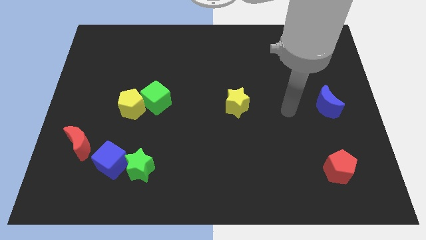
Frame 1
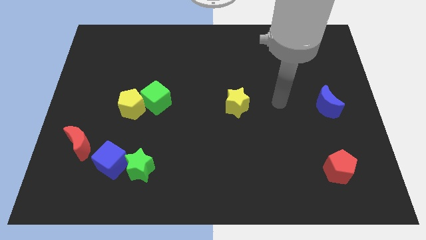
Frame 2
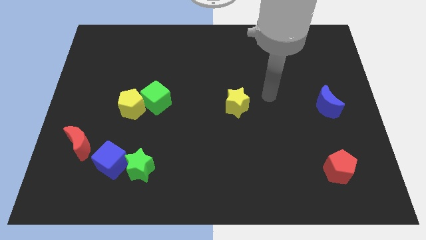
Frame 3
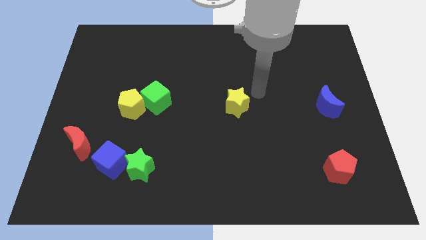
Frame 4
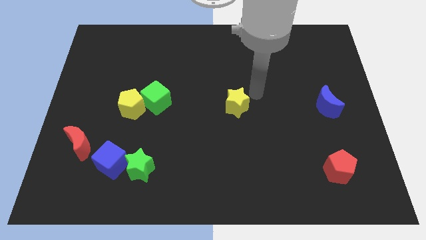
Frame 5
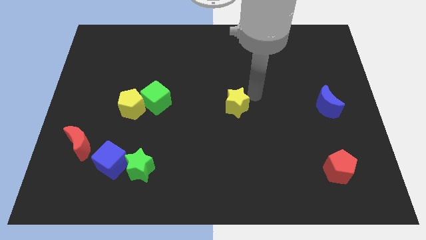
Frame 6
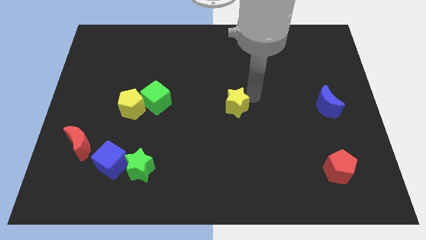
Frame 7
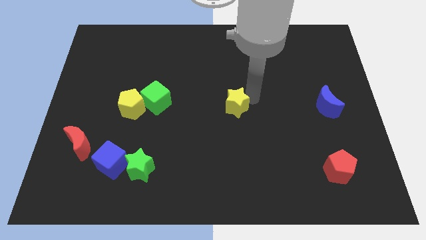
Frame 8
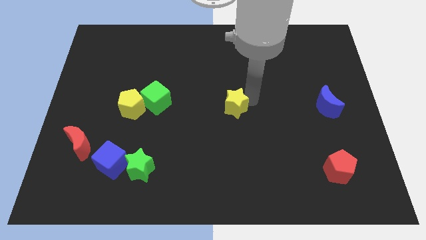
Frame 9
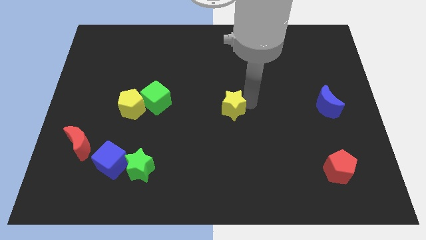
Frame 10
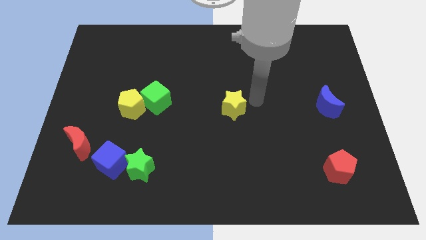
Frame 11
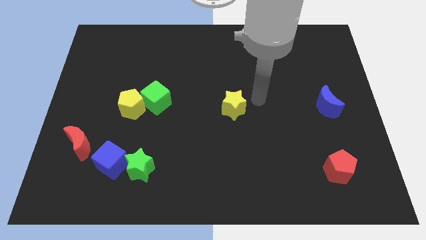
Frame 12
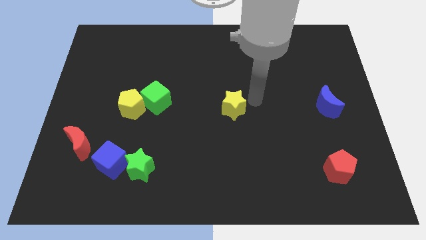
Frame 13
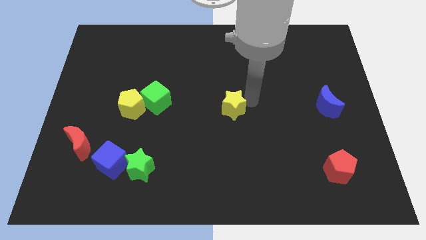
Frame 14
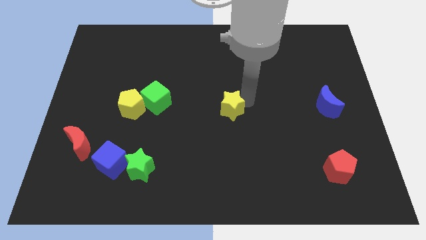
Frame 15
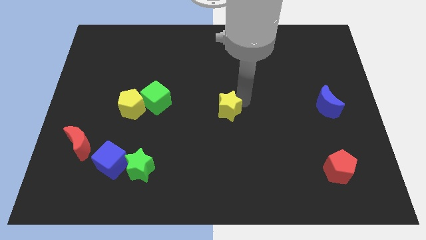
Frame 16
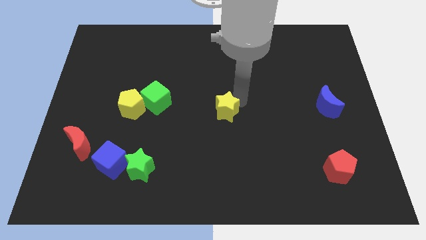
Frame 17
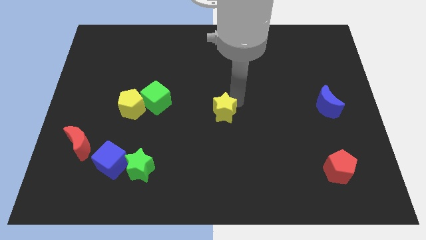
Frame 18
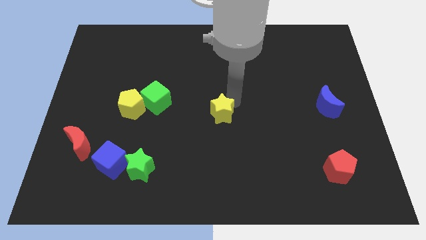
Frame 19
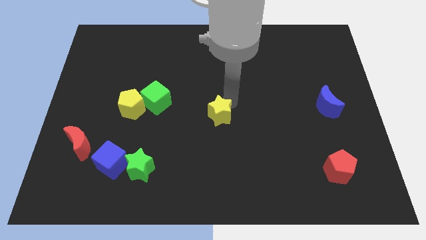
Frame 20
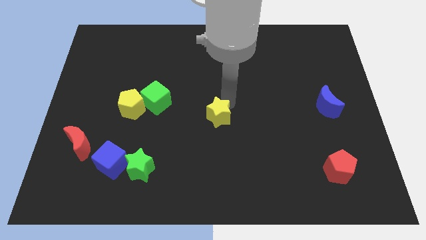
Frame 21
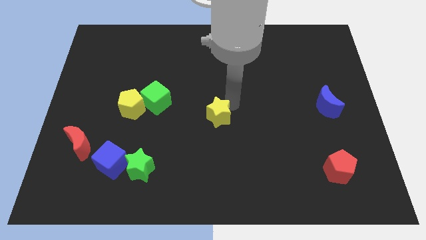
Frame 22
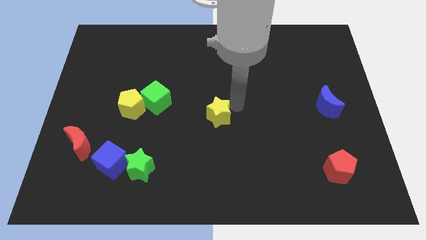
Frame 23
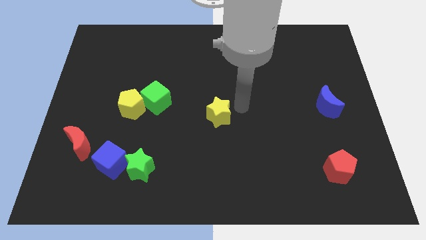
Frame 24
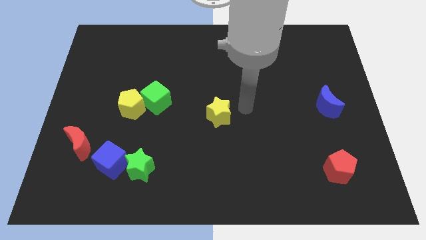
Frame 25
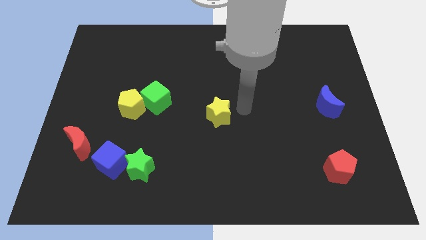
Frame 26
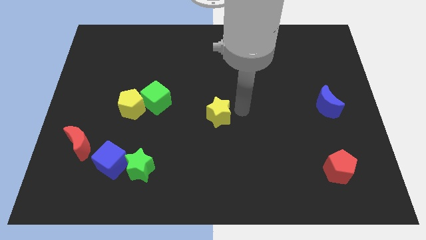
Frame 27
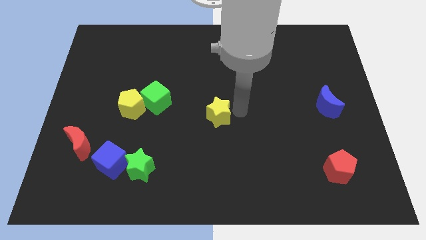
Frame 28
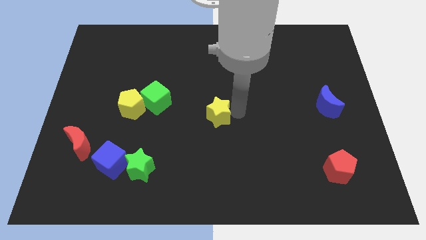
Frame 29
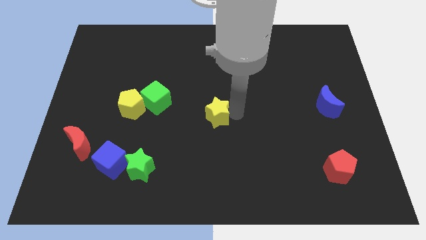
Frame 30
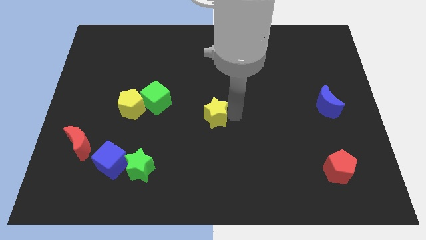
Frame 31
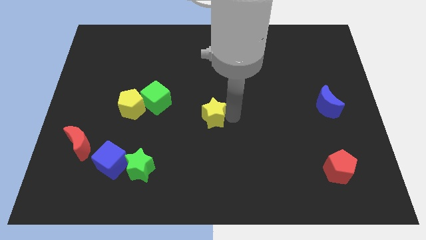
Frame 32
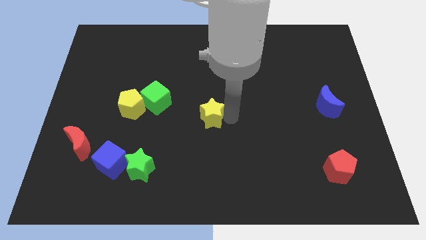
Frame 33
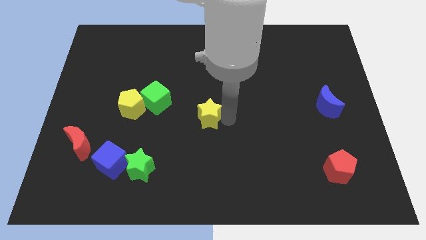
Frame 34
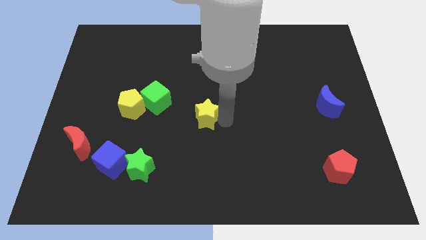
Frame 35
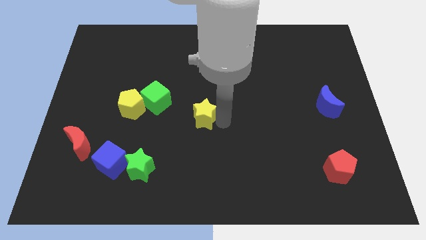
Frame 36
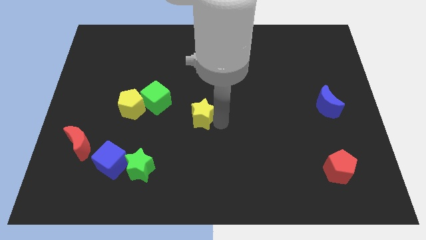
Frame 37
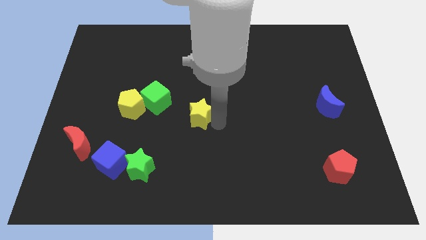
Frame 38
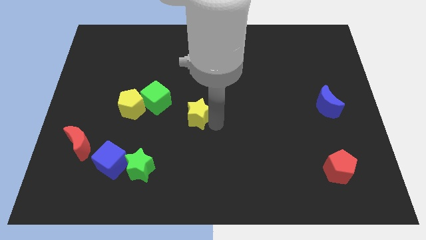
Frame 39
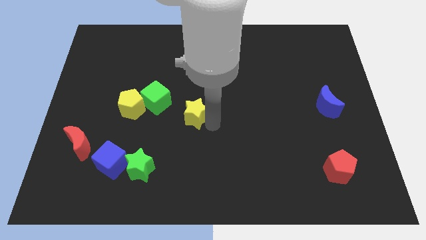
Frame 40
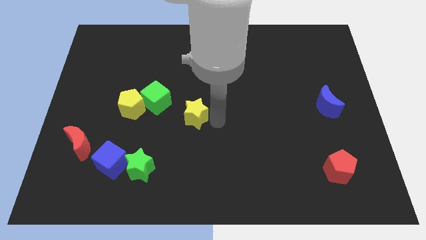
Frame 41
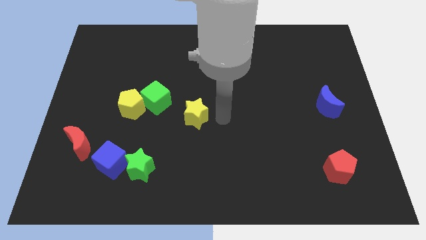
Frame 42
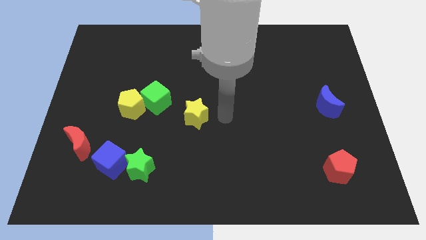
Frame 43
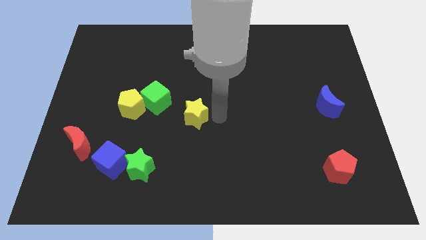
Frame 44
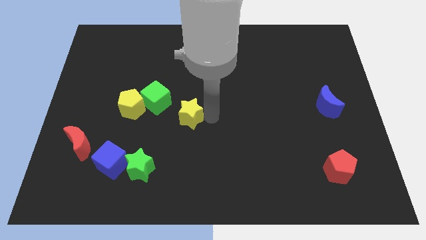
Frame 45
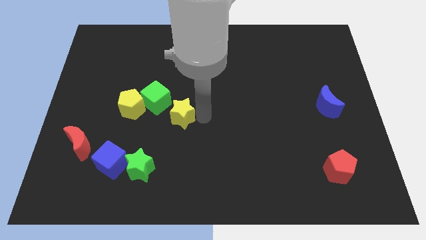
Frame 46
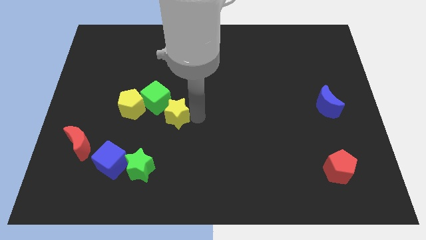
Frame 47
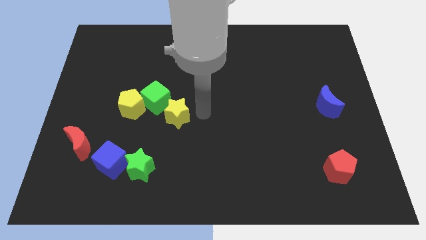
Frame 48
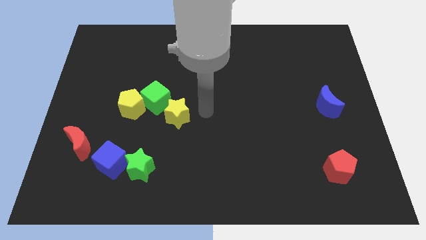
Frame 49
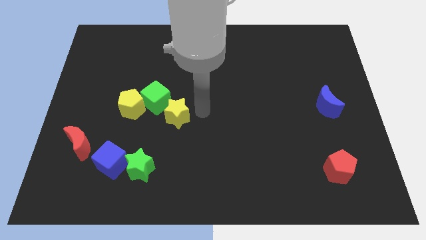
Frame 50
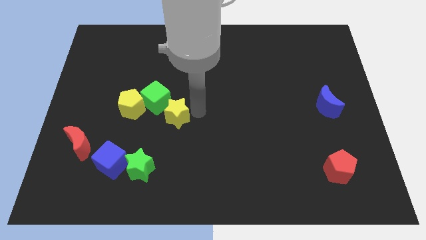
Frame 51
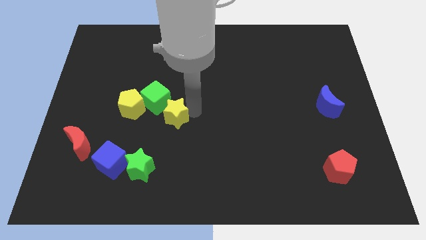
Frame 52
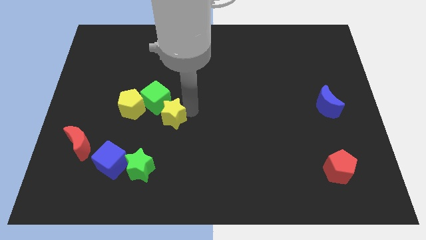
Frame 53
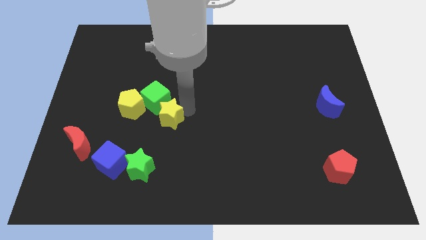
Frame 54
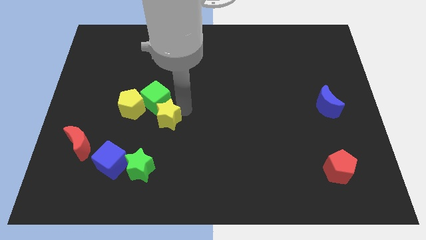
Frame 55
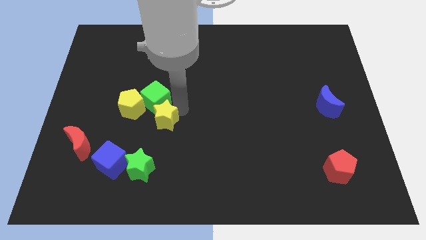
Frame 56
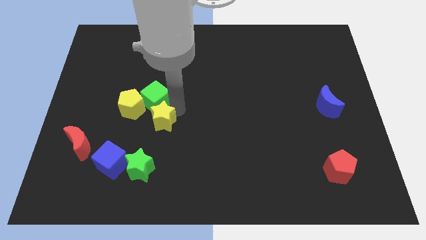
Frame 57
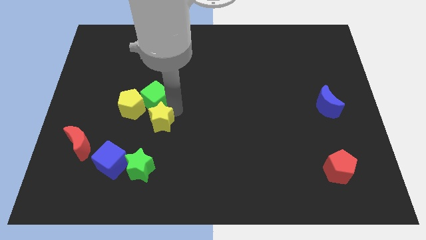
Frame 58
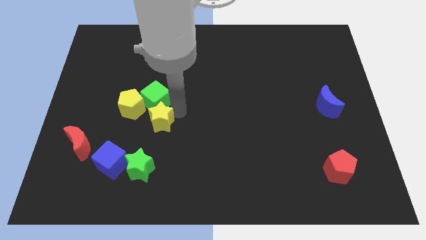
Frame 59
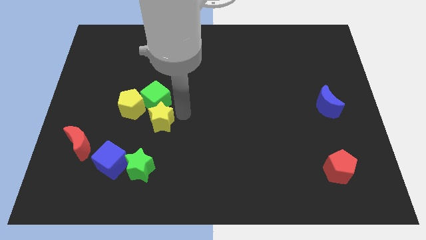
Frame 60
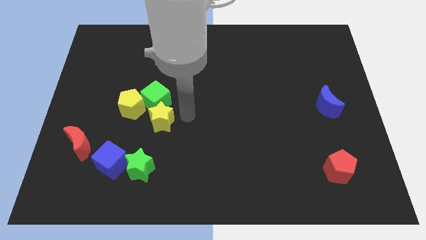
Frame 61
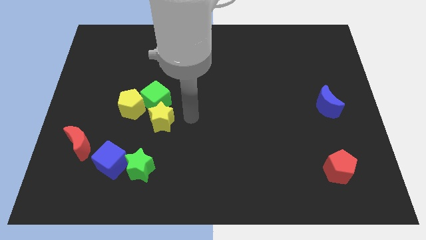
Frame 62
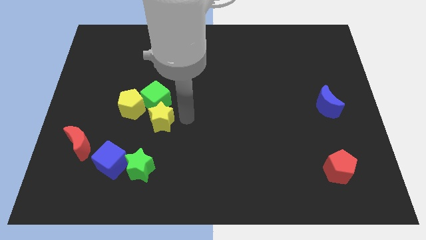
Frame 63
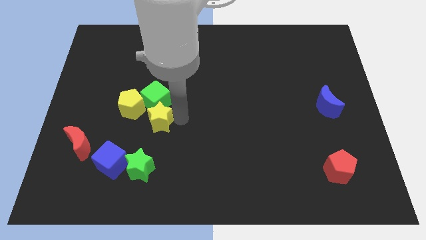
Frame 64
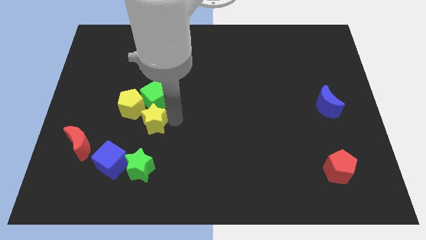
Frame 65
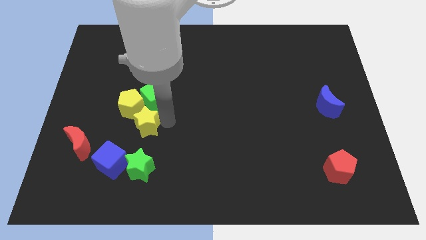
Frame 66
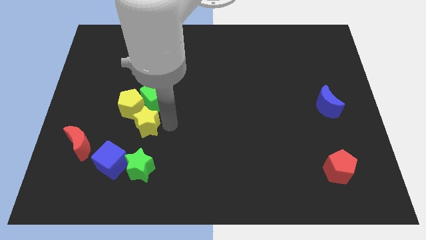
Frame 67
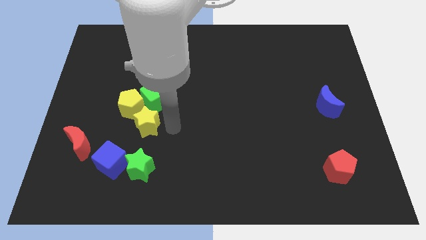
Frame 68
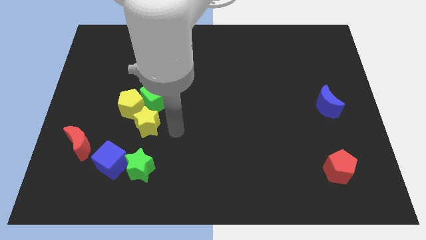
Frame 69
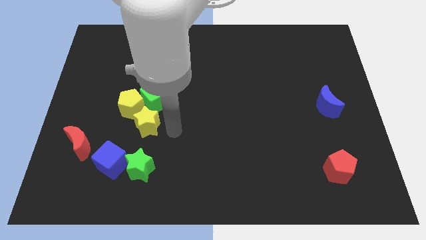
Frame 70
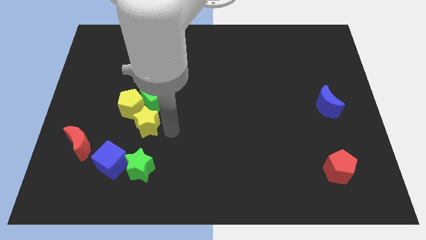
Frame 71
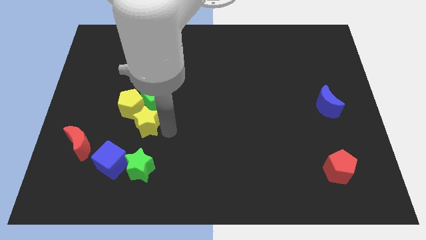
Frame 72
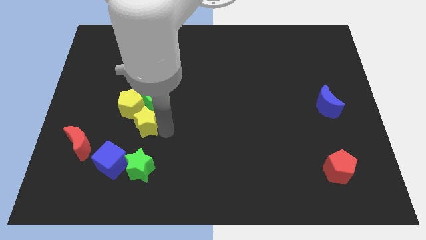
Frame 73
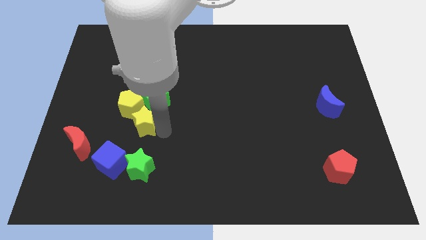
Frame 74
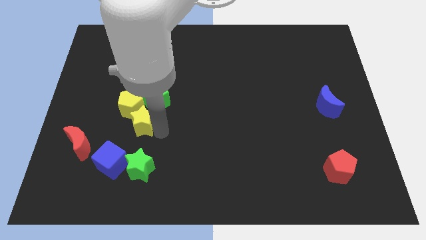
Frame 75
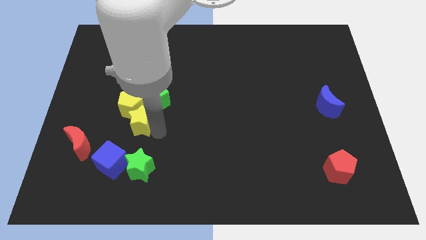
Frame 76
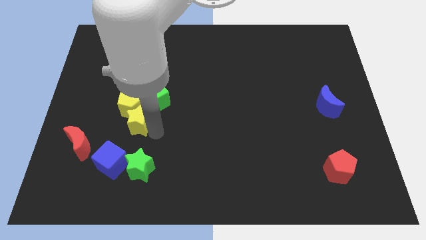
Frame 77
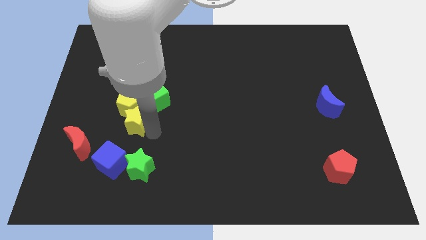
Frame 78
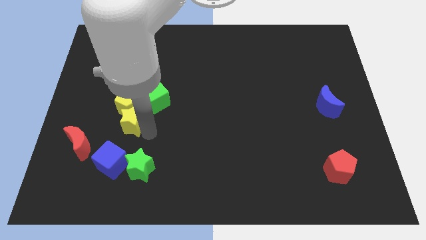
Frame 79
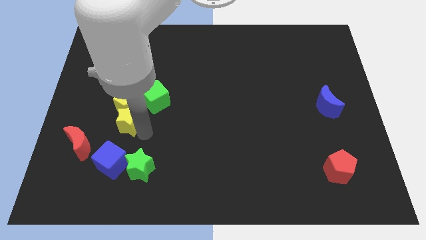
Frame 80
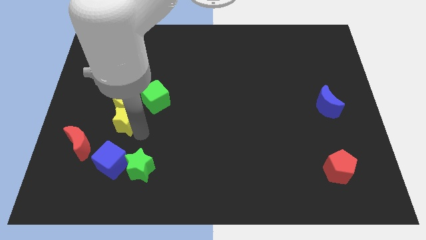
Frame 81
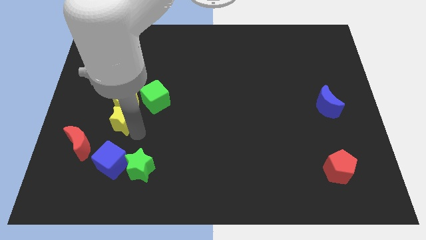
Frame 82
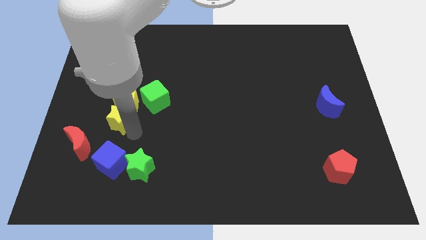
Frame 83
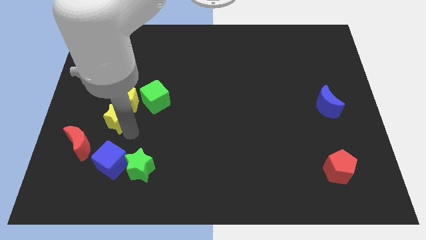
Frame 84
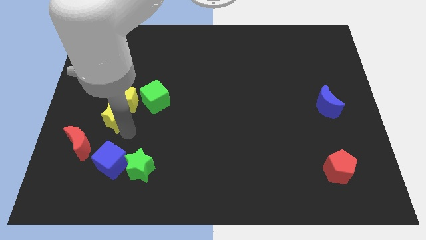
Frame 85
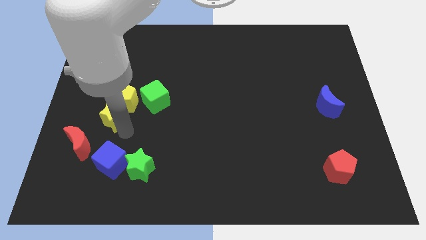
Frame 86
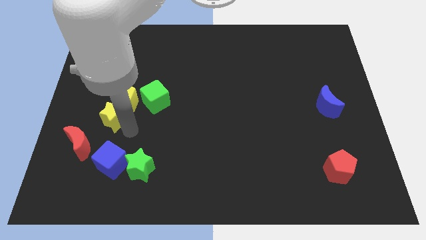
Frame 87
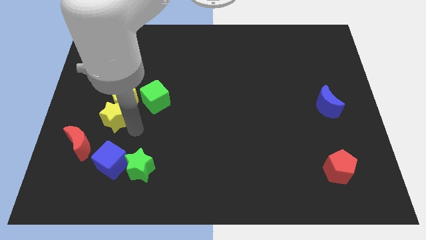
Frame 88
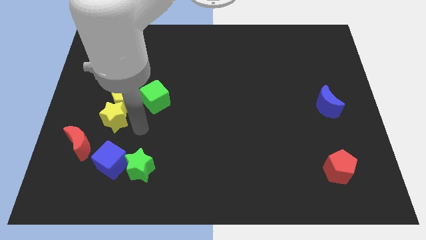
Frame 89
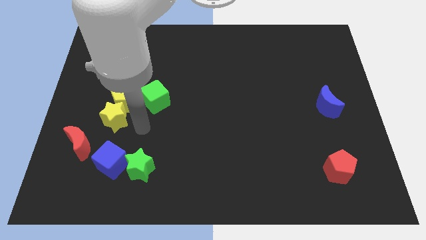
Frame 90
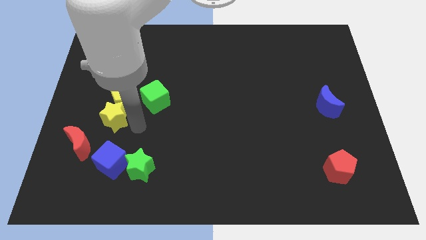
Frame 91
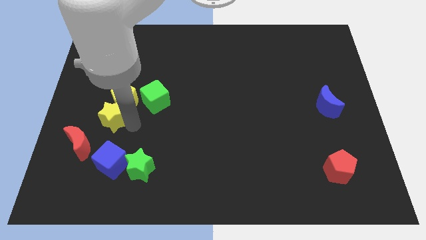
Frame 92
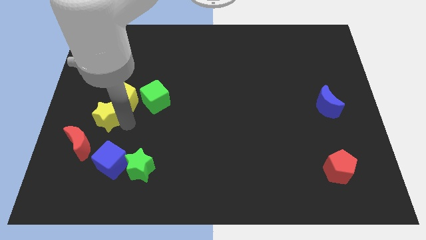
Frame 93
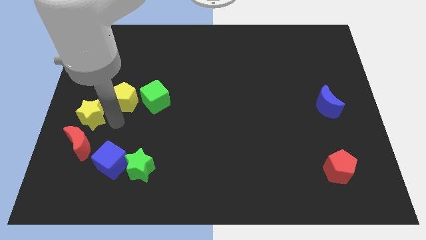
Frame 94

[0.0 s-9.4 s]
push the yellow star to the left side of the board
